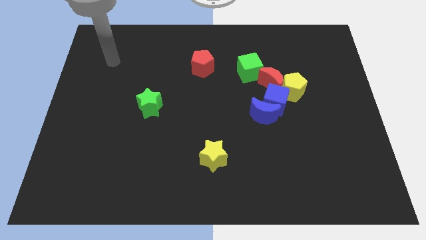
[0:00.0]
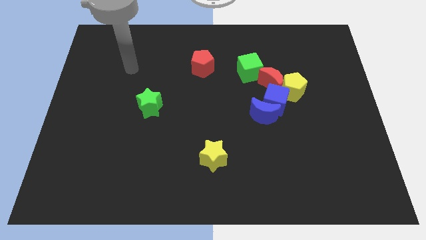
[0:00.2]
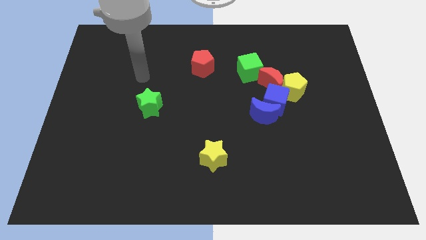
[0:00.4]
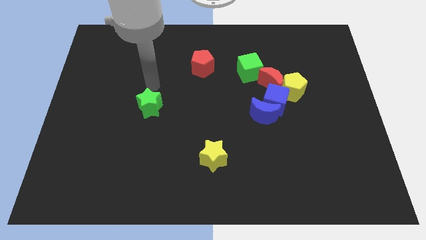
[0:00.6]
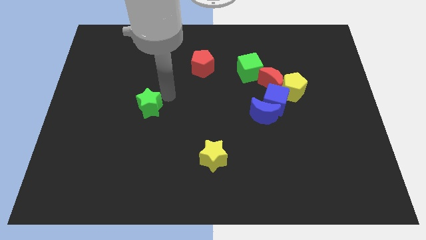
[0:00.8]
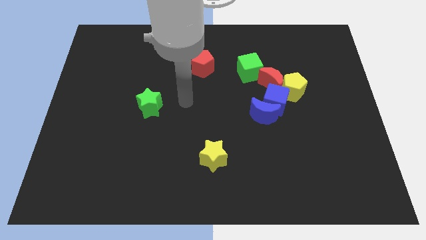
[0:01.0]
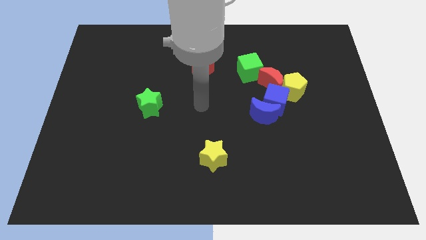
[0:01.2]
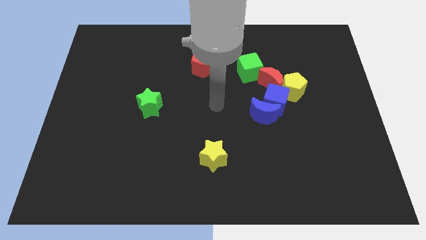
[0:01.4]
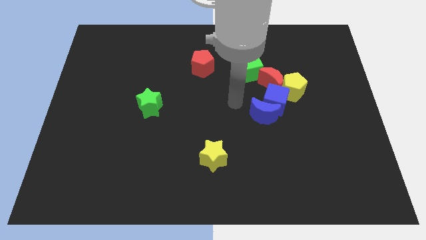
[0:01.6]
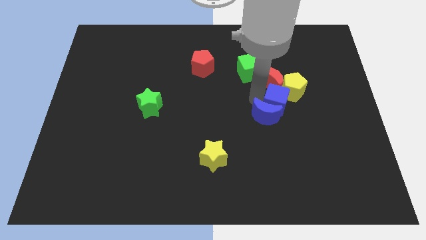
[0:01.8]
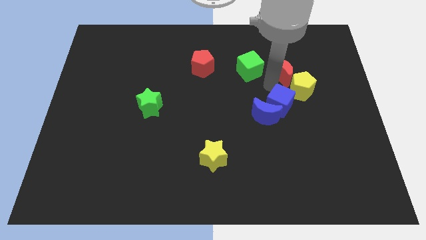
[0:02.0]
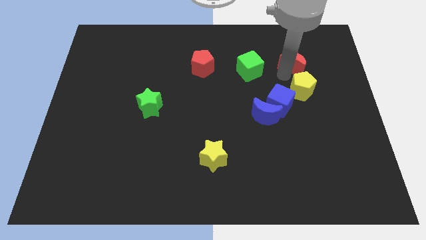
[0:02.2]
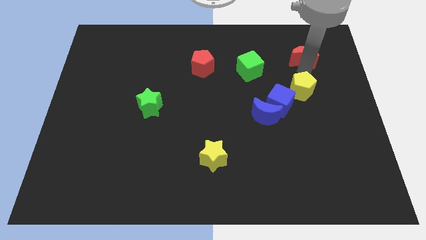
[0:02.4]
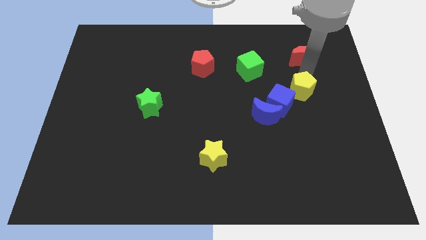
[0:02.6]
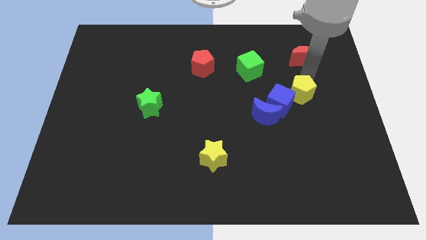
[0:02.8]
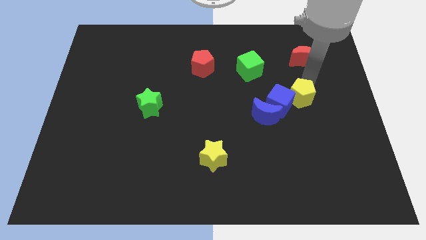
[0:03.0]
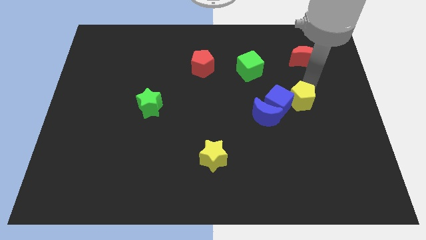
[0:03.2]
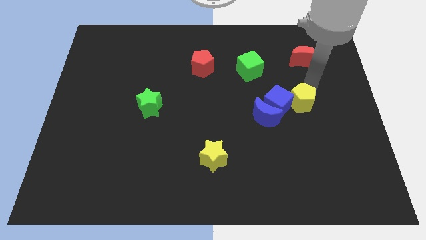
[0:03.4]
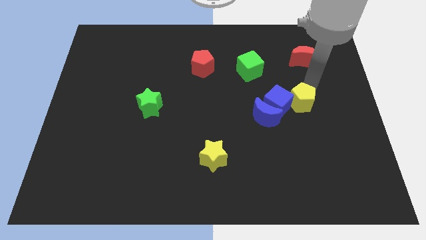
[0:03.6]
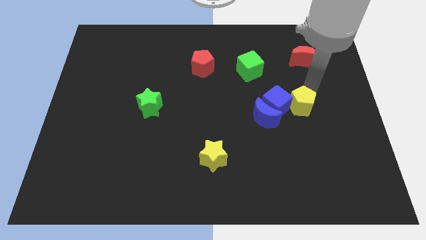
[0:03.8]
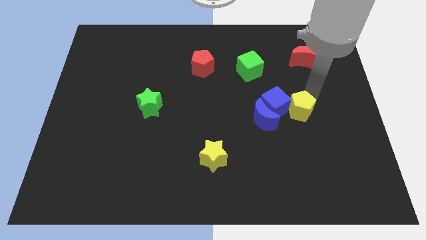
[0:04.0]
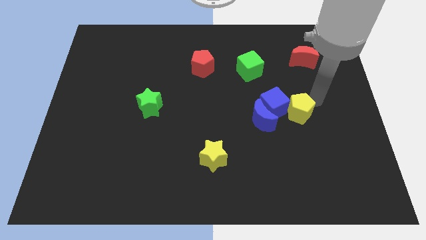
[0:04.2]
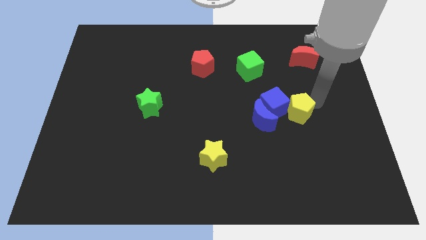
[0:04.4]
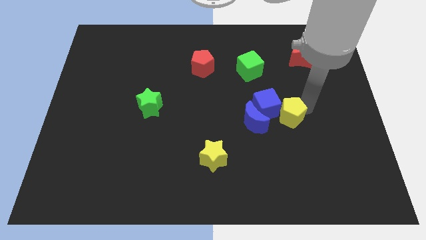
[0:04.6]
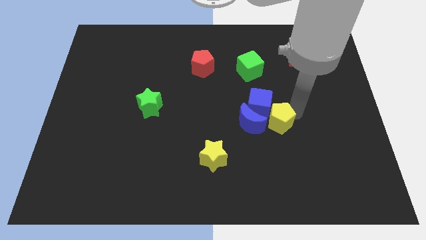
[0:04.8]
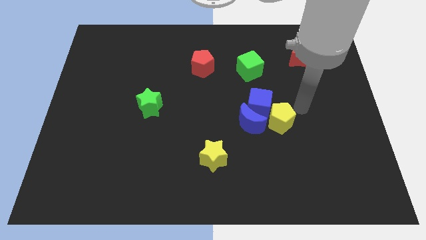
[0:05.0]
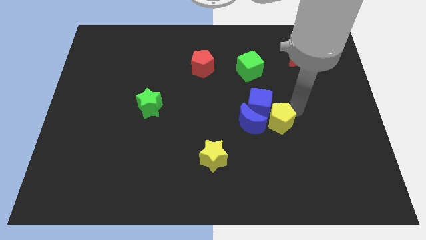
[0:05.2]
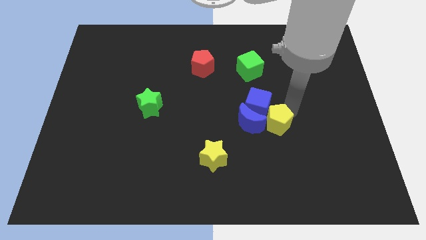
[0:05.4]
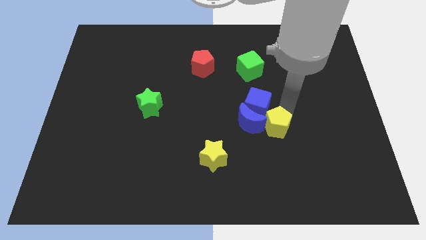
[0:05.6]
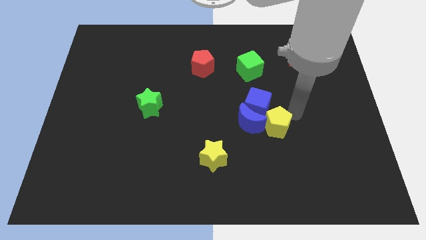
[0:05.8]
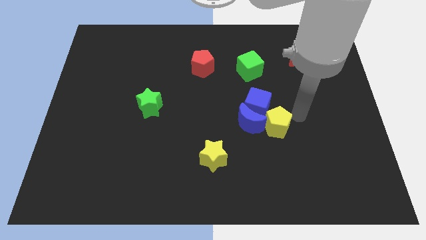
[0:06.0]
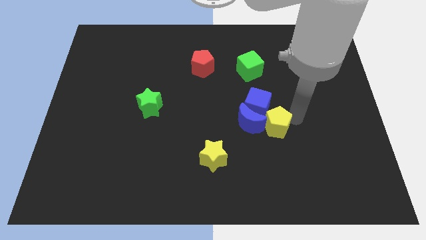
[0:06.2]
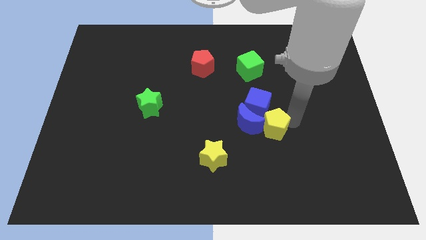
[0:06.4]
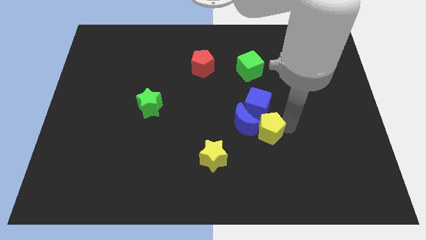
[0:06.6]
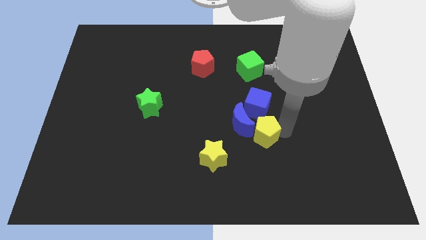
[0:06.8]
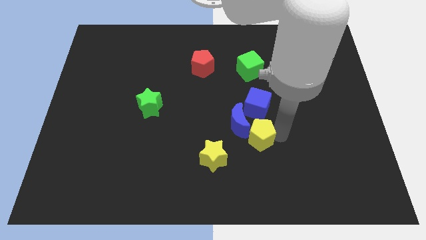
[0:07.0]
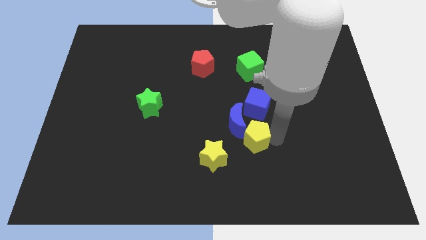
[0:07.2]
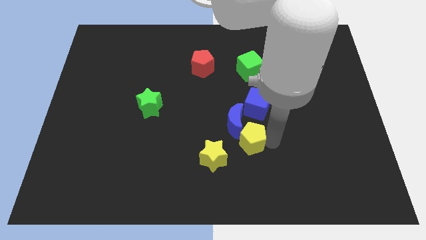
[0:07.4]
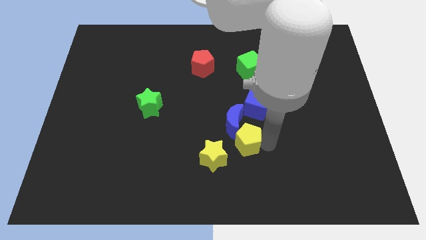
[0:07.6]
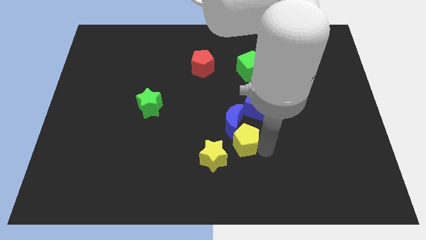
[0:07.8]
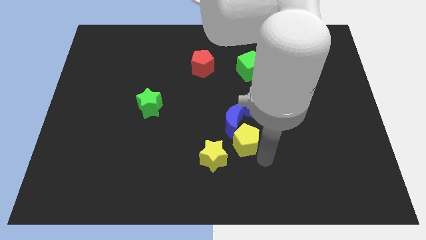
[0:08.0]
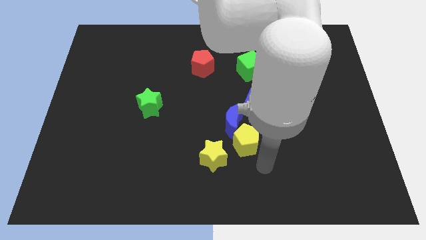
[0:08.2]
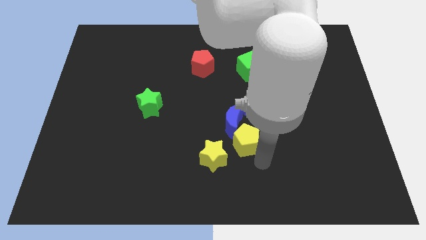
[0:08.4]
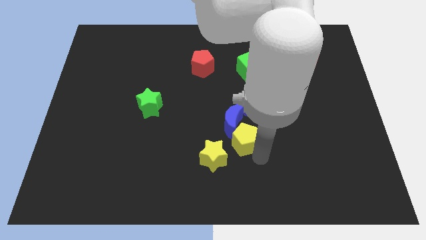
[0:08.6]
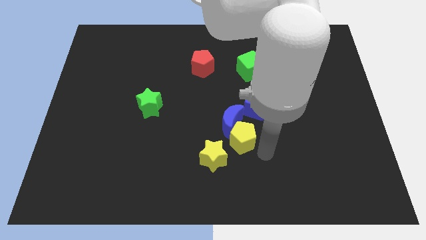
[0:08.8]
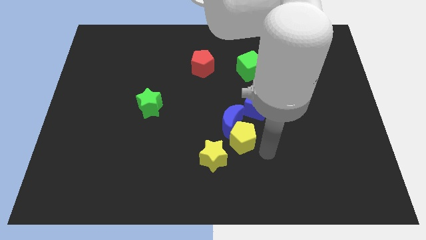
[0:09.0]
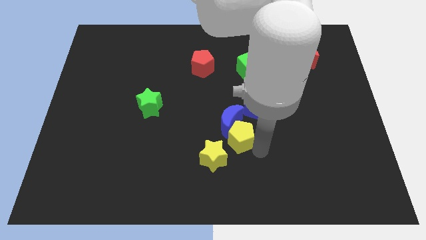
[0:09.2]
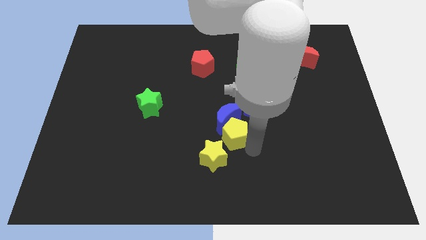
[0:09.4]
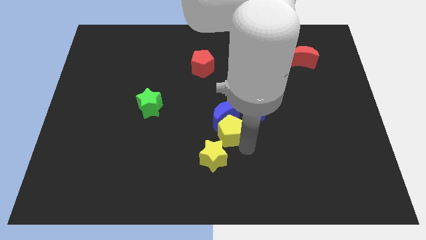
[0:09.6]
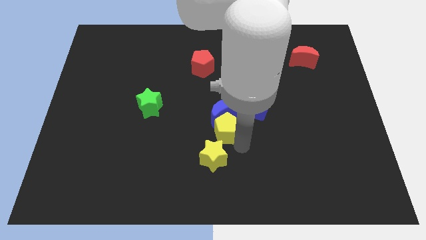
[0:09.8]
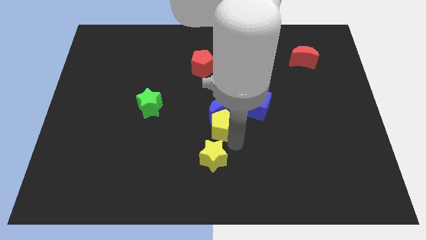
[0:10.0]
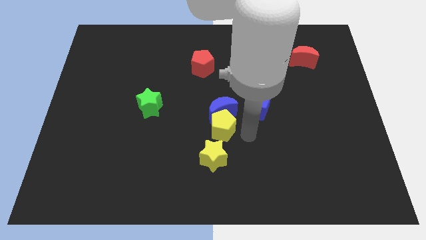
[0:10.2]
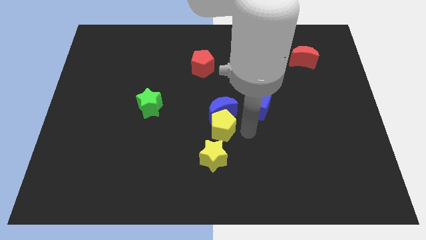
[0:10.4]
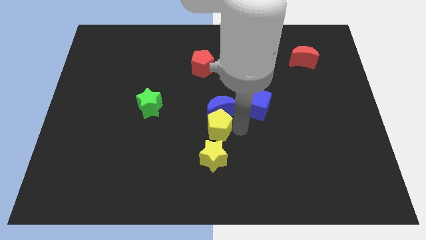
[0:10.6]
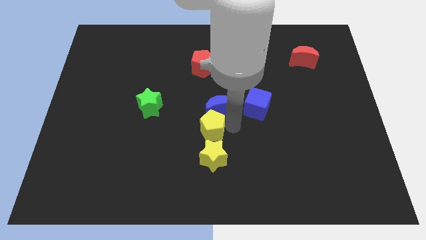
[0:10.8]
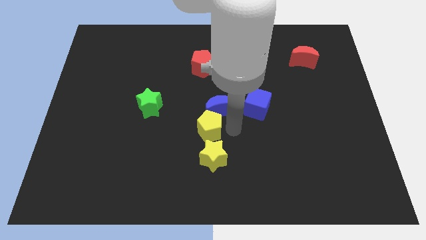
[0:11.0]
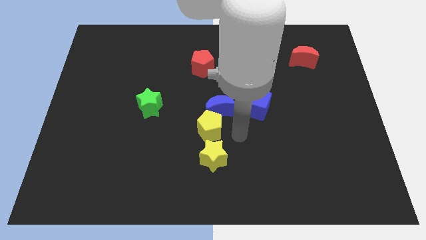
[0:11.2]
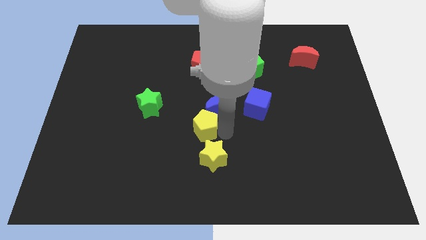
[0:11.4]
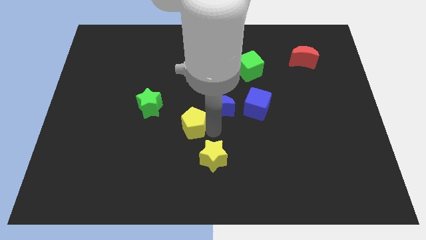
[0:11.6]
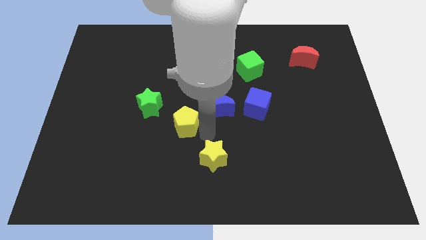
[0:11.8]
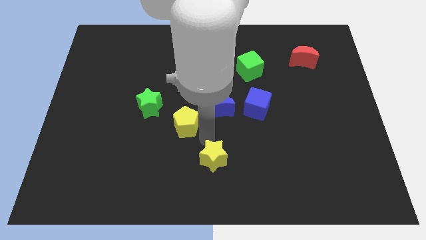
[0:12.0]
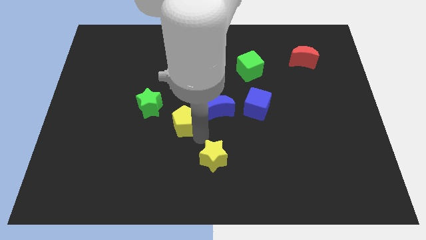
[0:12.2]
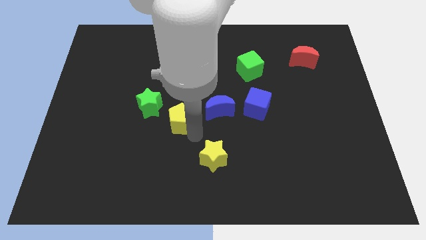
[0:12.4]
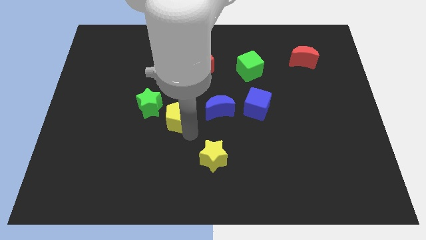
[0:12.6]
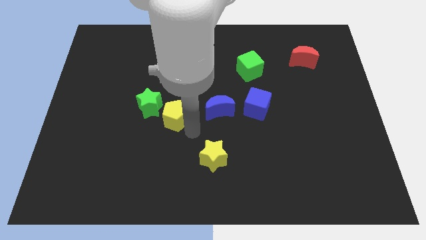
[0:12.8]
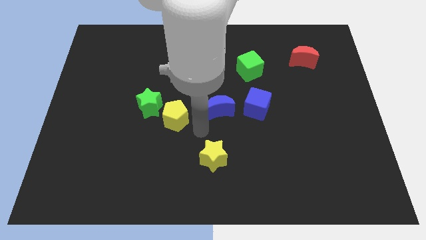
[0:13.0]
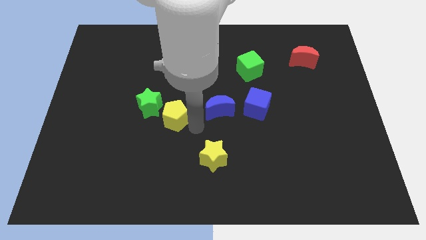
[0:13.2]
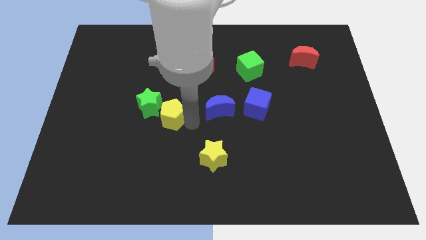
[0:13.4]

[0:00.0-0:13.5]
put the yellow pentagon towards the green star
